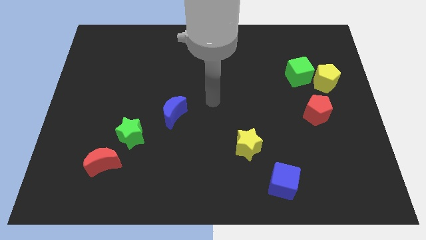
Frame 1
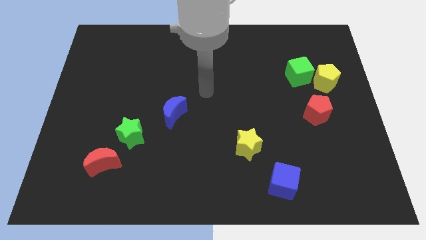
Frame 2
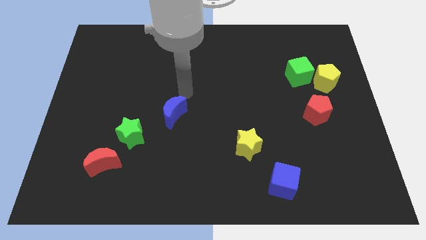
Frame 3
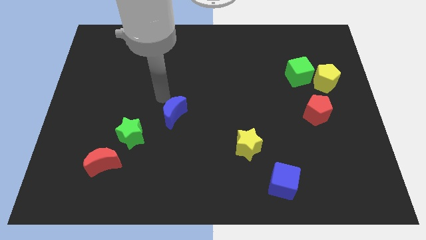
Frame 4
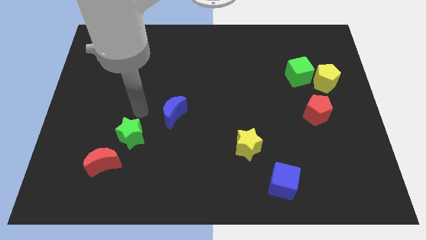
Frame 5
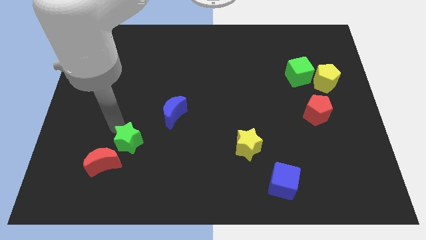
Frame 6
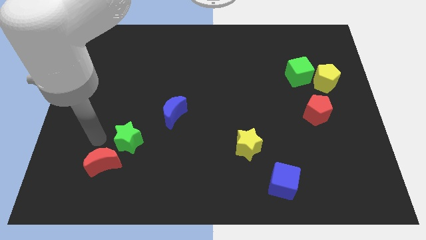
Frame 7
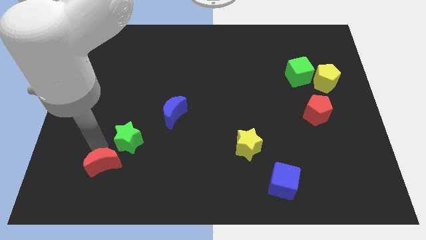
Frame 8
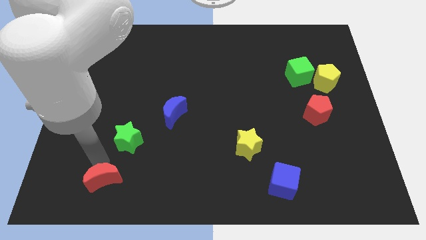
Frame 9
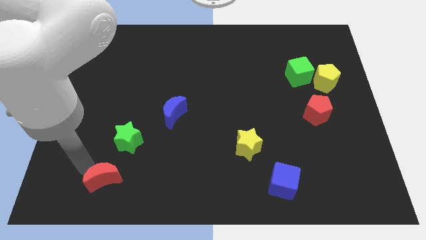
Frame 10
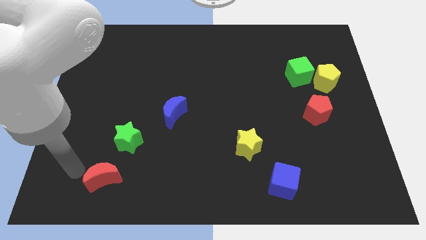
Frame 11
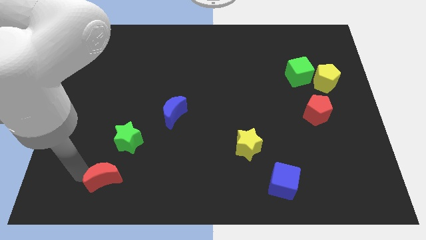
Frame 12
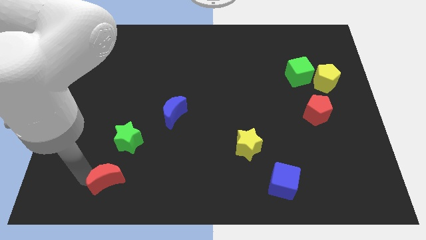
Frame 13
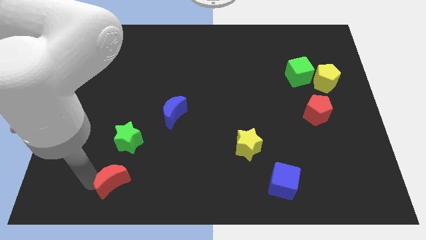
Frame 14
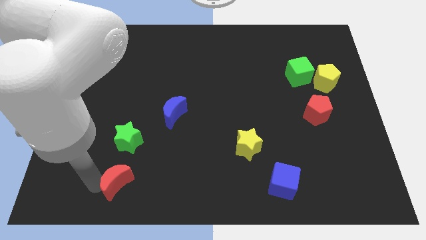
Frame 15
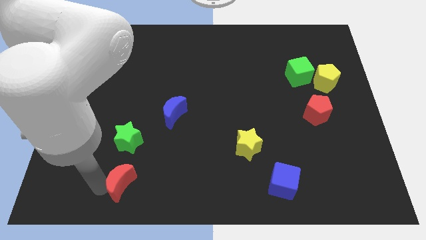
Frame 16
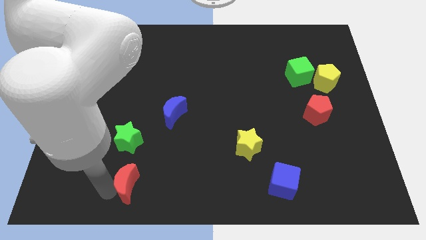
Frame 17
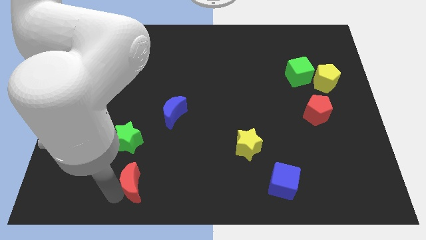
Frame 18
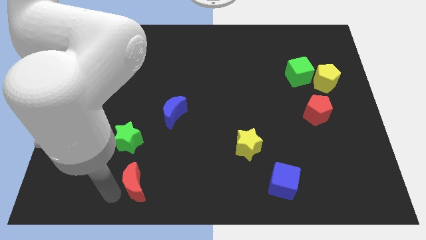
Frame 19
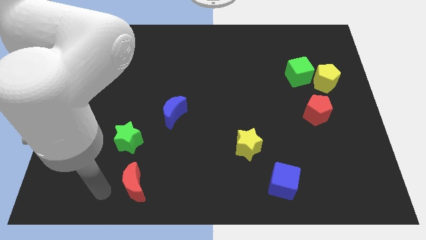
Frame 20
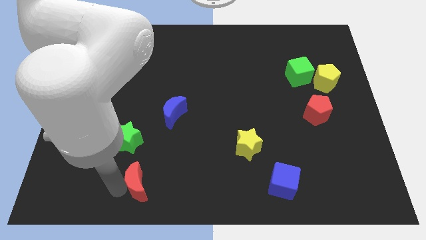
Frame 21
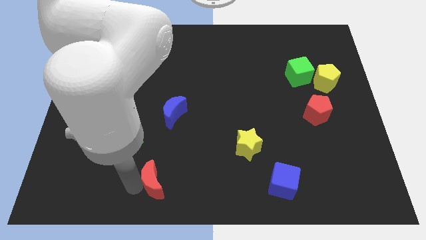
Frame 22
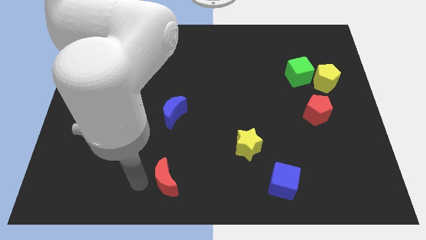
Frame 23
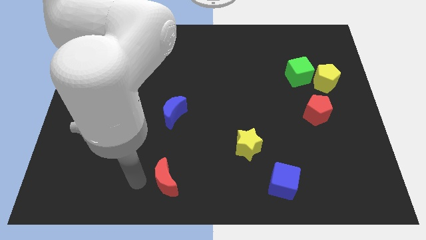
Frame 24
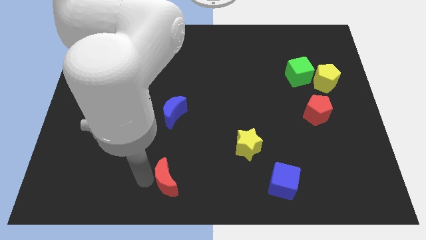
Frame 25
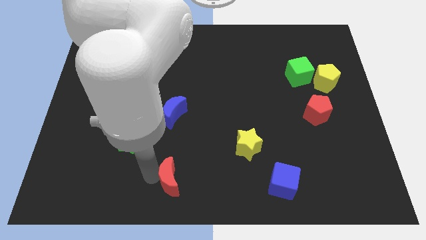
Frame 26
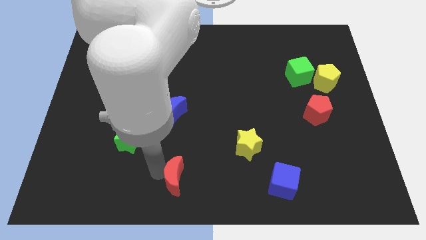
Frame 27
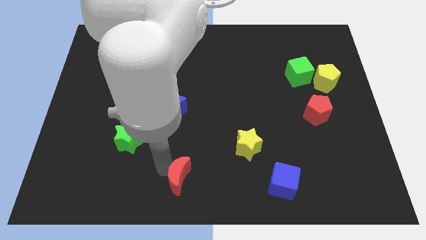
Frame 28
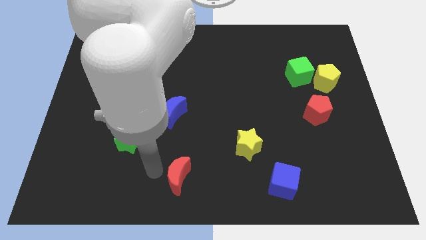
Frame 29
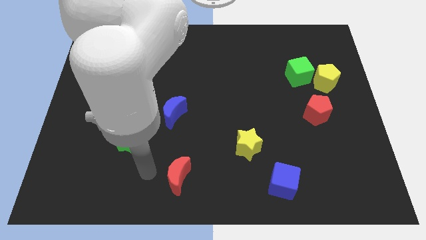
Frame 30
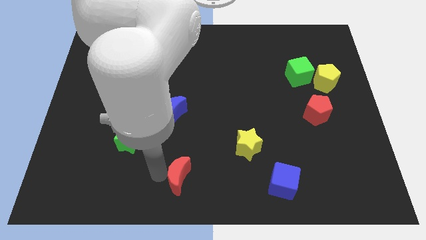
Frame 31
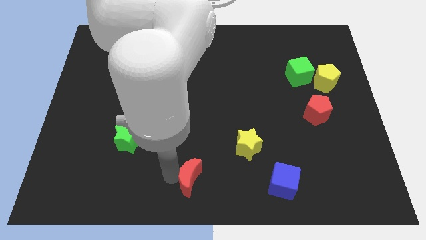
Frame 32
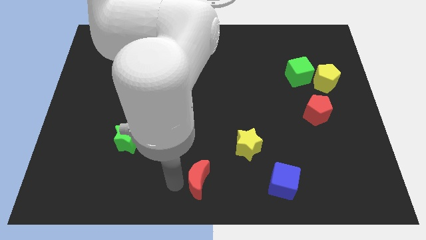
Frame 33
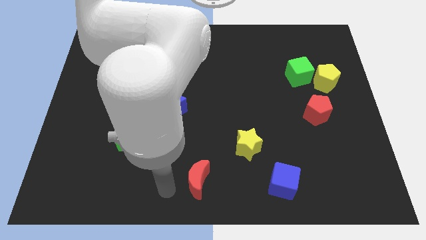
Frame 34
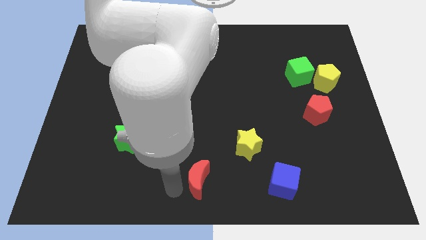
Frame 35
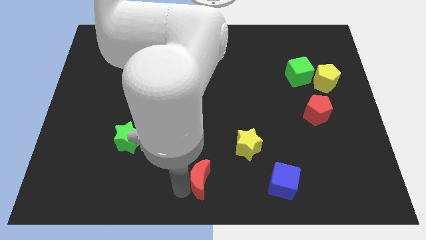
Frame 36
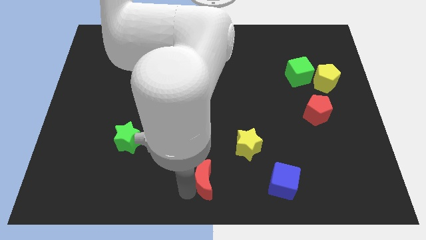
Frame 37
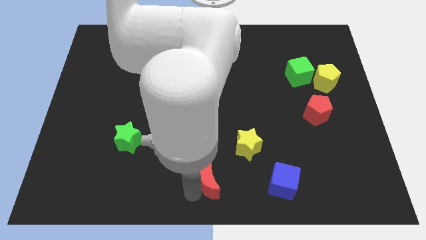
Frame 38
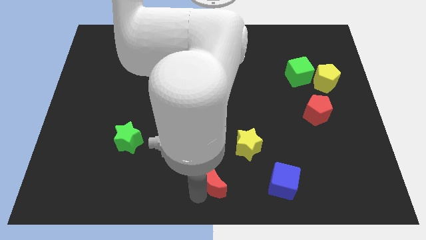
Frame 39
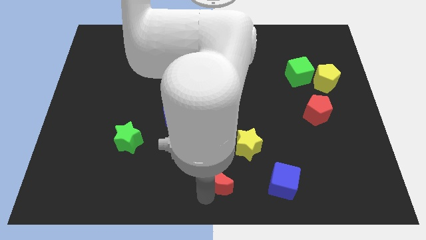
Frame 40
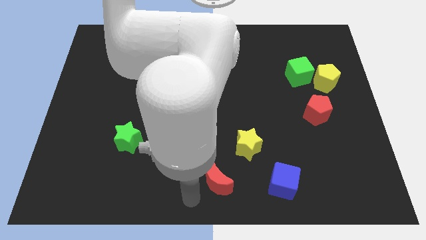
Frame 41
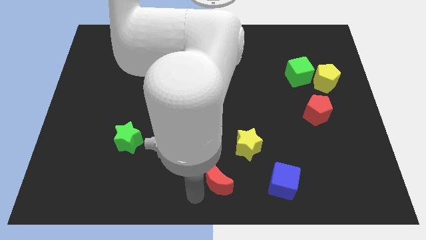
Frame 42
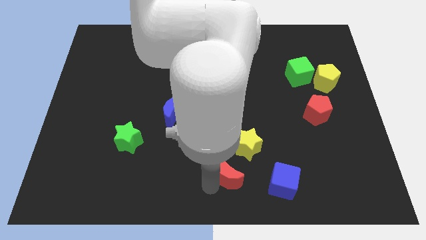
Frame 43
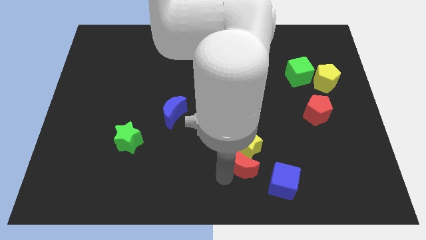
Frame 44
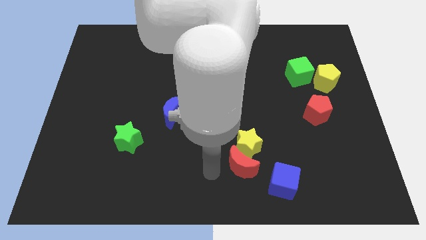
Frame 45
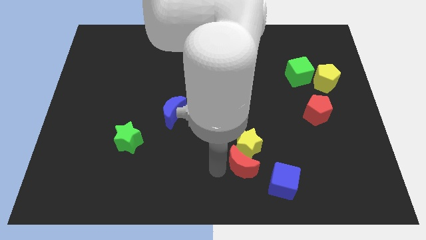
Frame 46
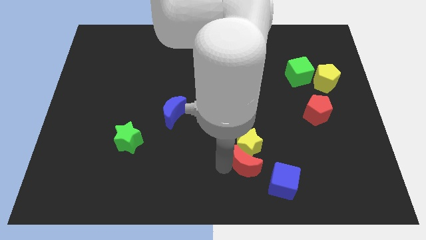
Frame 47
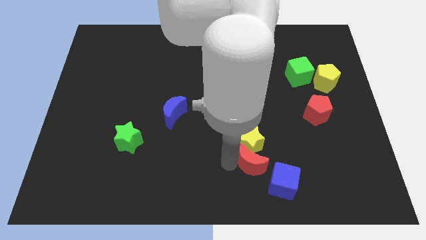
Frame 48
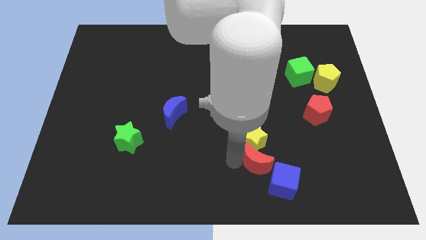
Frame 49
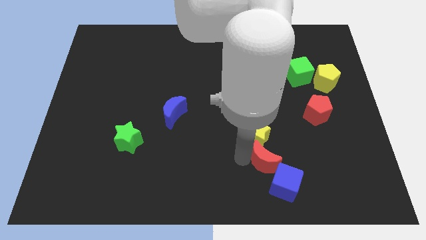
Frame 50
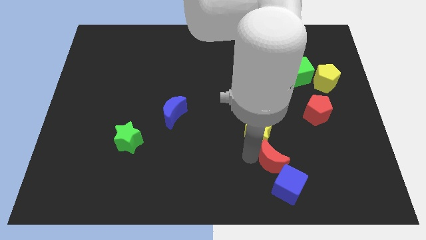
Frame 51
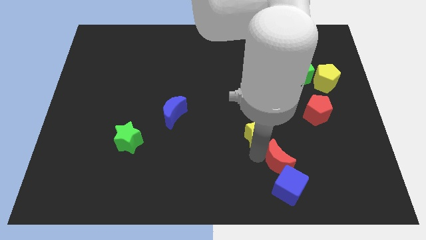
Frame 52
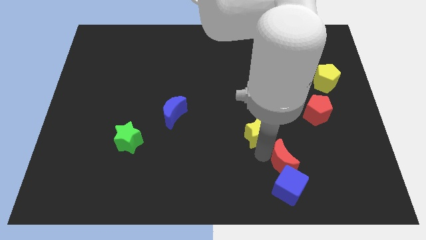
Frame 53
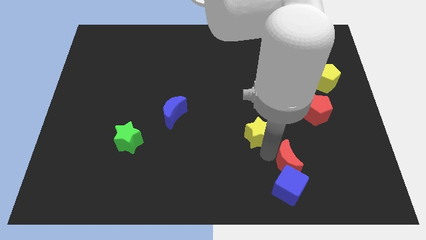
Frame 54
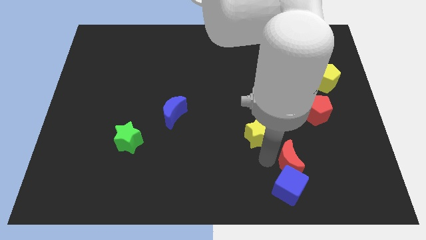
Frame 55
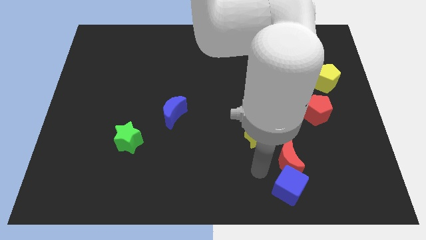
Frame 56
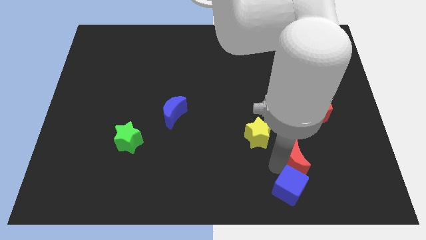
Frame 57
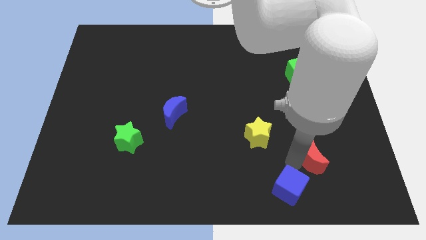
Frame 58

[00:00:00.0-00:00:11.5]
slide the red moon to the bottom of the red pentagon

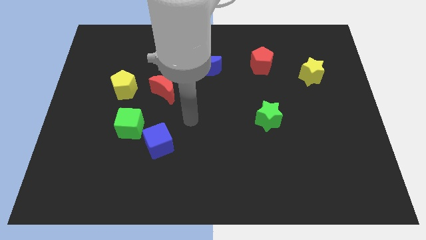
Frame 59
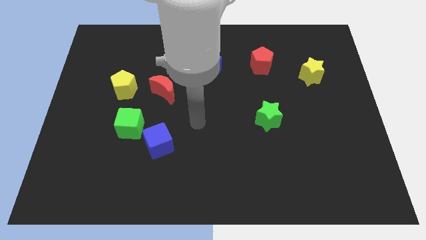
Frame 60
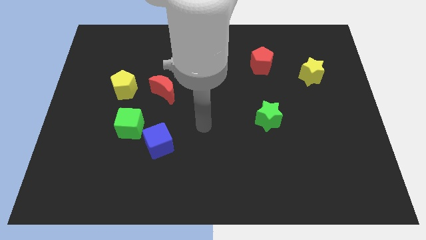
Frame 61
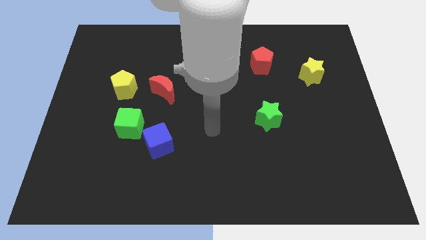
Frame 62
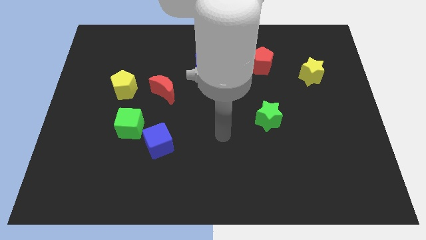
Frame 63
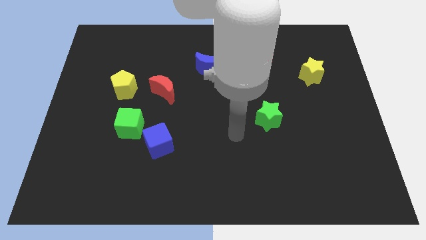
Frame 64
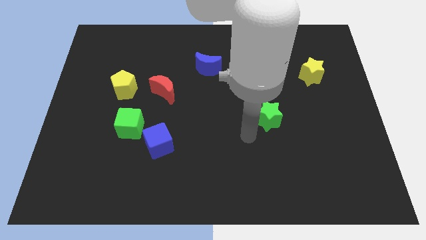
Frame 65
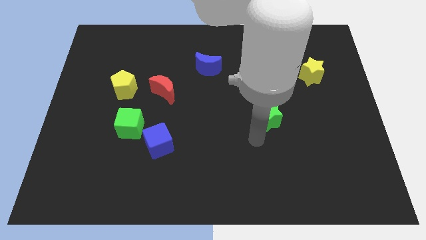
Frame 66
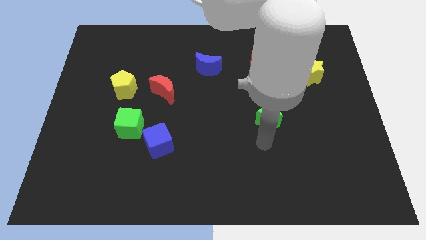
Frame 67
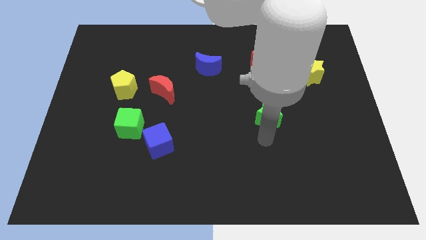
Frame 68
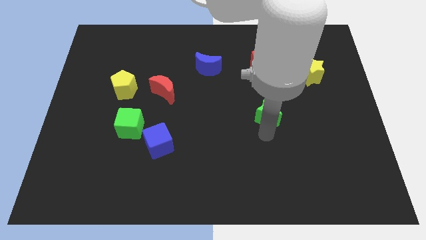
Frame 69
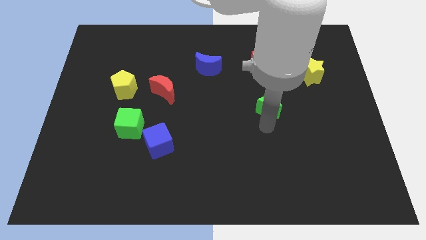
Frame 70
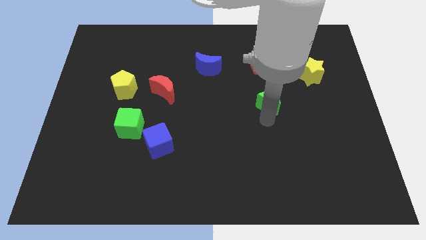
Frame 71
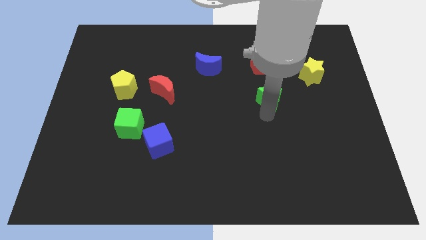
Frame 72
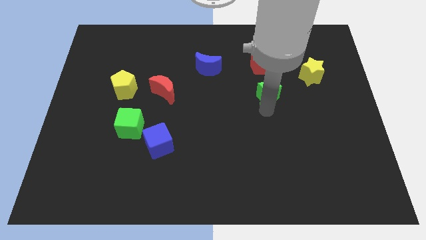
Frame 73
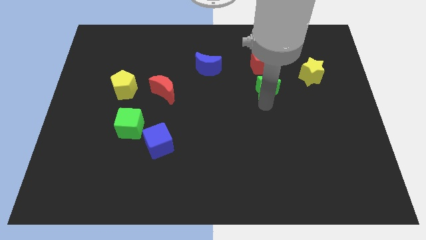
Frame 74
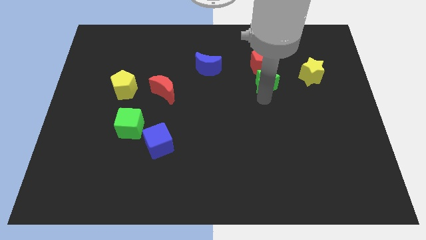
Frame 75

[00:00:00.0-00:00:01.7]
move the green star to the bottom right of the red pentagon
